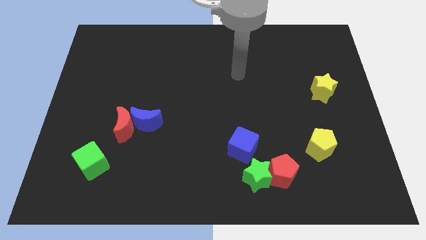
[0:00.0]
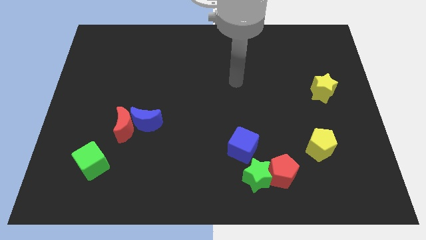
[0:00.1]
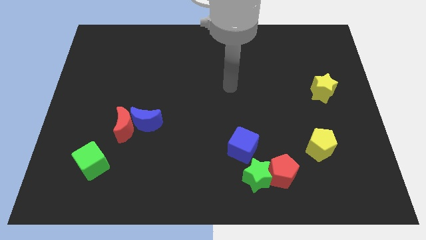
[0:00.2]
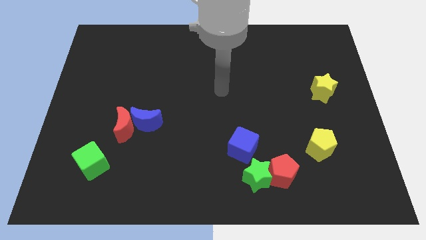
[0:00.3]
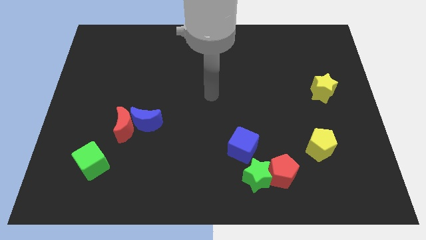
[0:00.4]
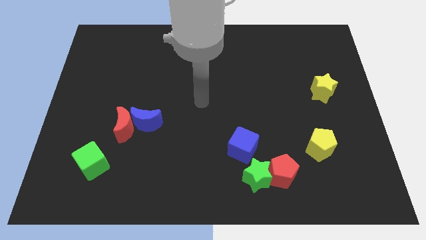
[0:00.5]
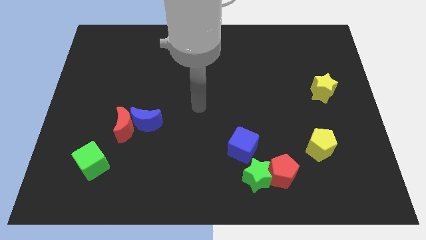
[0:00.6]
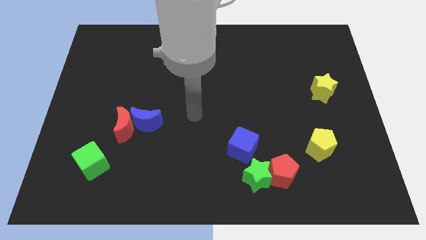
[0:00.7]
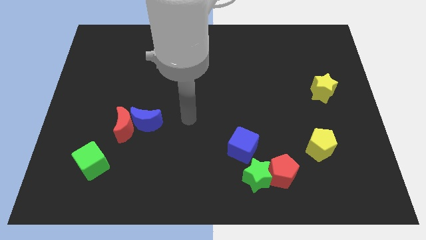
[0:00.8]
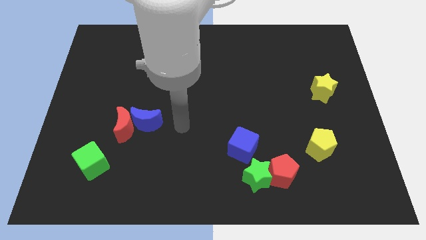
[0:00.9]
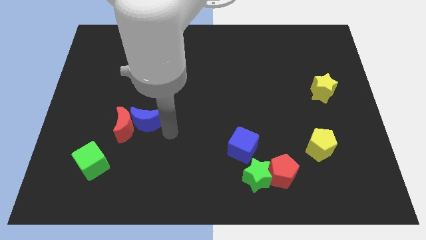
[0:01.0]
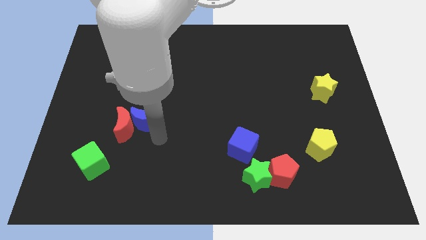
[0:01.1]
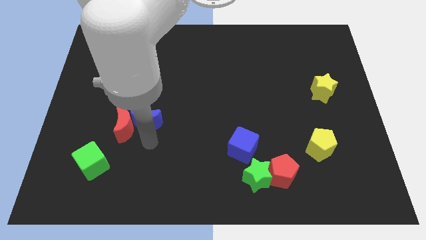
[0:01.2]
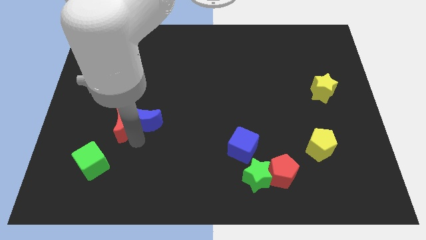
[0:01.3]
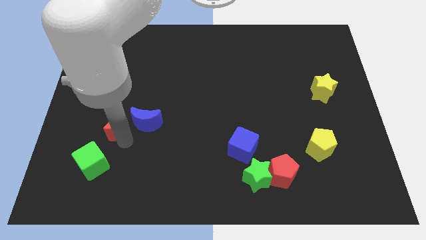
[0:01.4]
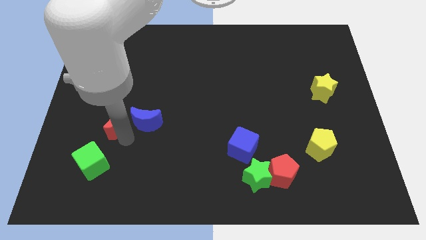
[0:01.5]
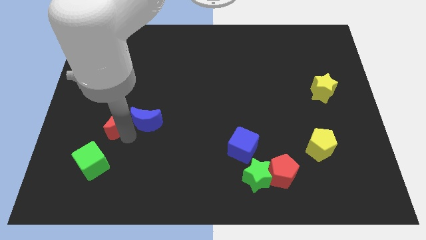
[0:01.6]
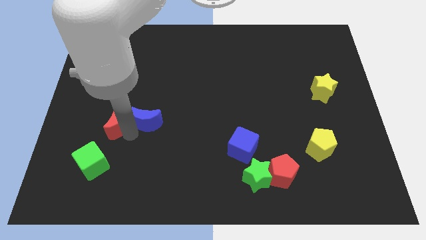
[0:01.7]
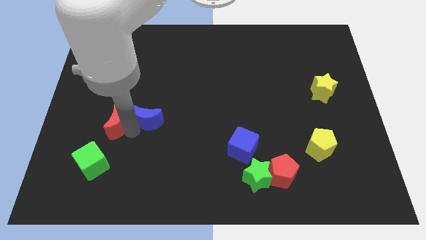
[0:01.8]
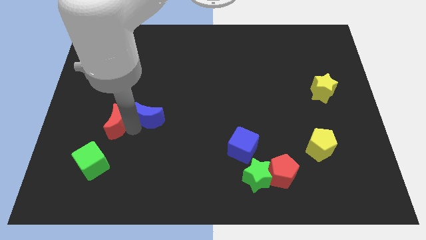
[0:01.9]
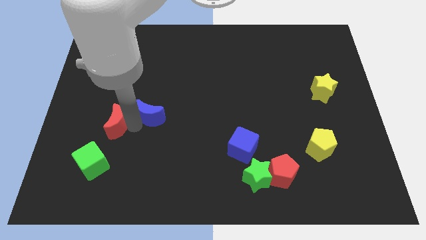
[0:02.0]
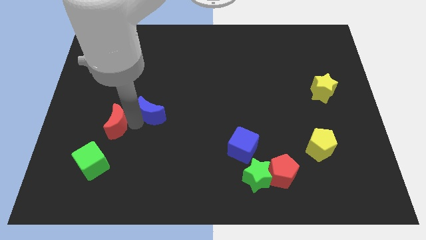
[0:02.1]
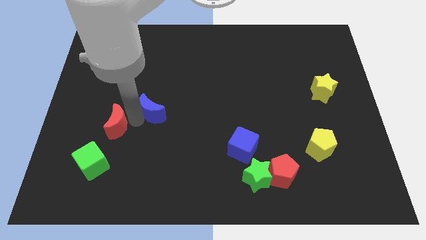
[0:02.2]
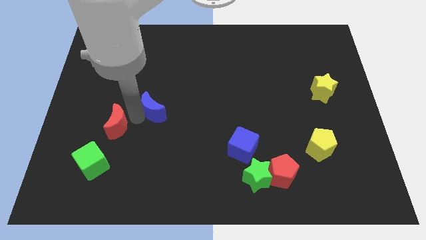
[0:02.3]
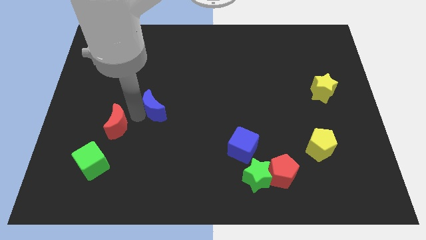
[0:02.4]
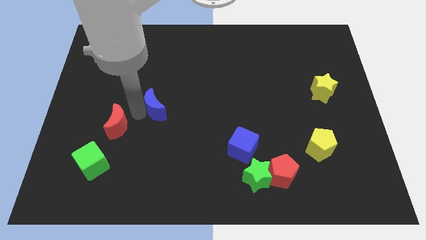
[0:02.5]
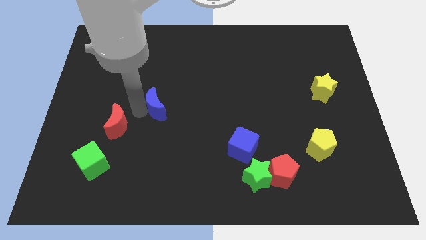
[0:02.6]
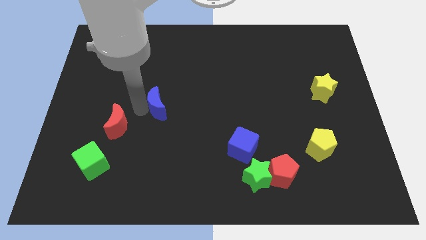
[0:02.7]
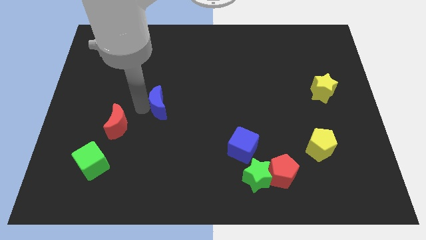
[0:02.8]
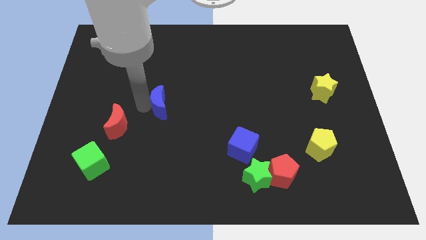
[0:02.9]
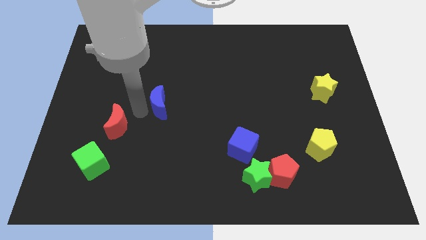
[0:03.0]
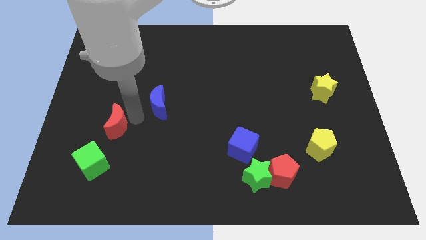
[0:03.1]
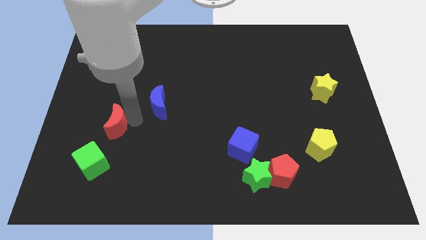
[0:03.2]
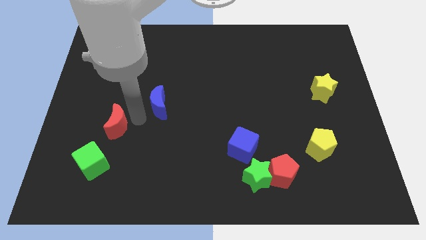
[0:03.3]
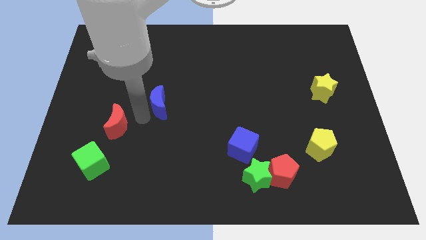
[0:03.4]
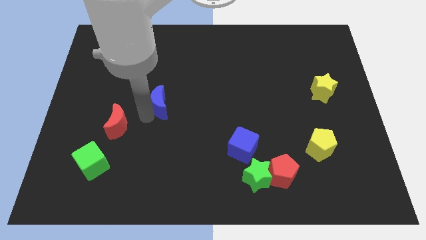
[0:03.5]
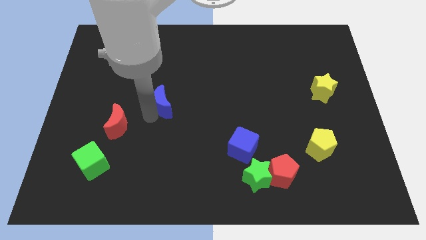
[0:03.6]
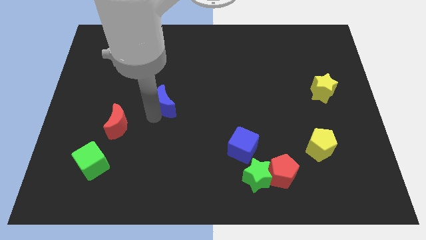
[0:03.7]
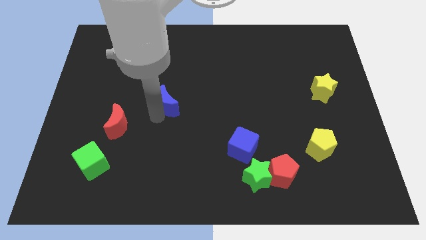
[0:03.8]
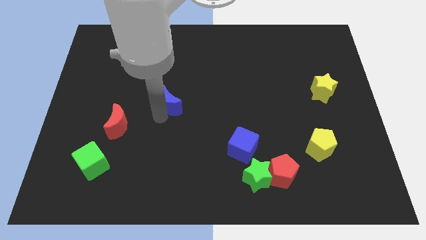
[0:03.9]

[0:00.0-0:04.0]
move the blue moon somewhat up and then to the right

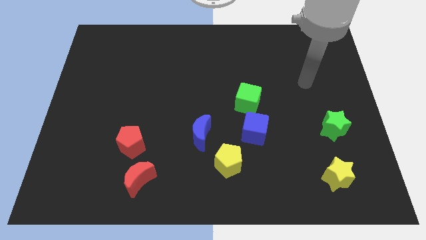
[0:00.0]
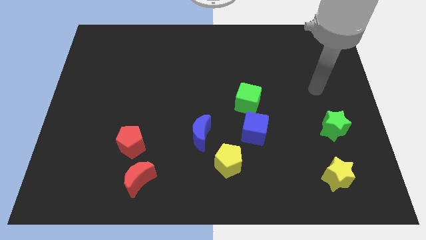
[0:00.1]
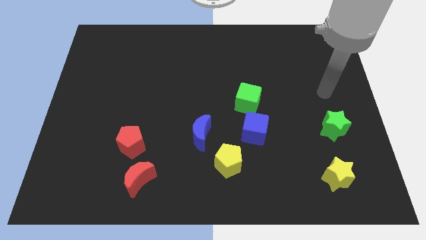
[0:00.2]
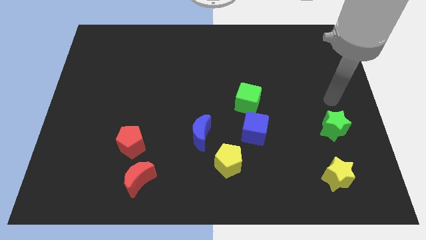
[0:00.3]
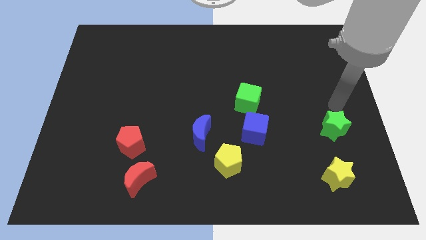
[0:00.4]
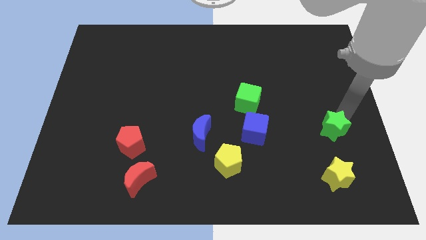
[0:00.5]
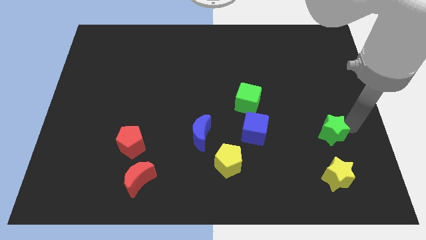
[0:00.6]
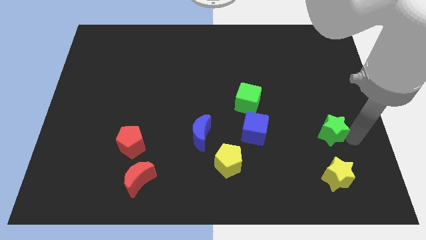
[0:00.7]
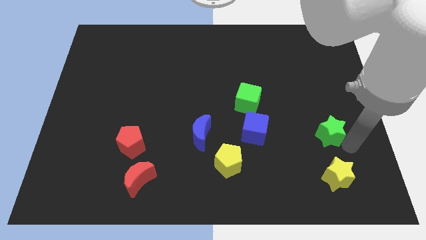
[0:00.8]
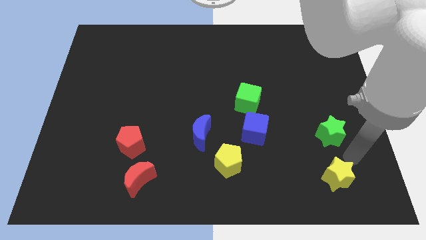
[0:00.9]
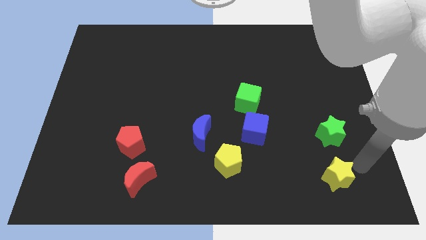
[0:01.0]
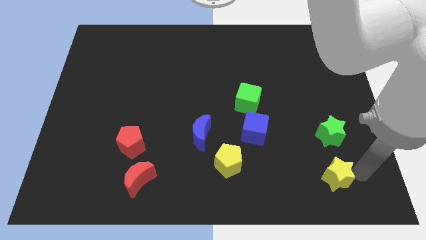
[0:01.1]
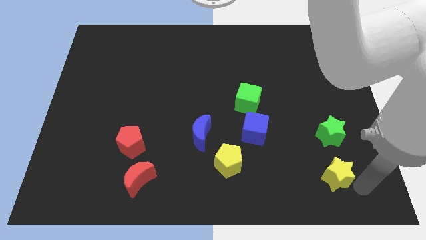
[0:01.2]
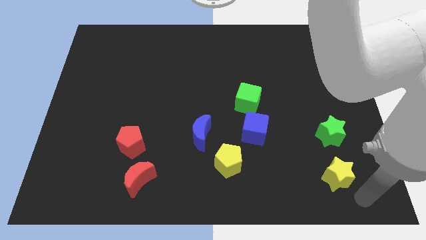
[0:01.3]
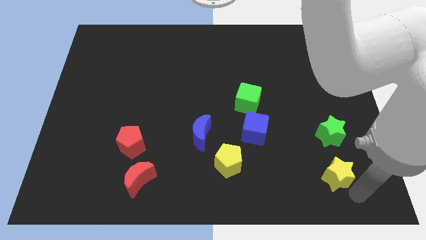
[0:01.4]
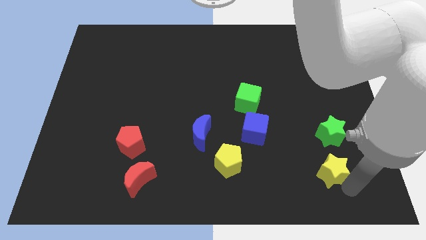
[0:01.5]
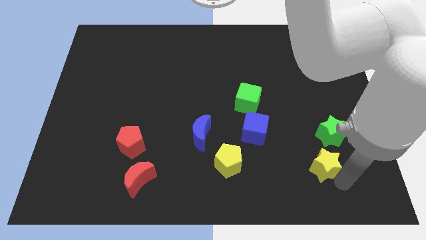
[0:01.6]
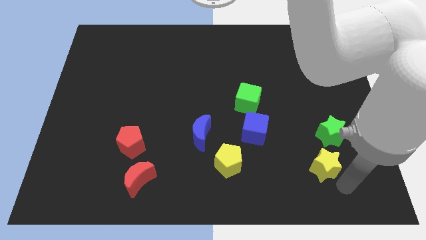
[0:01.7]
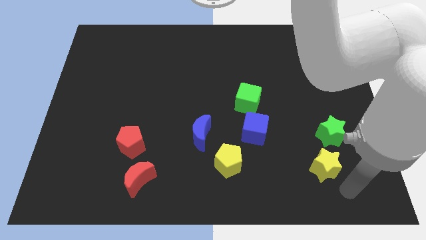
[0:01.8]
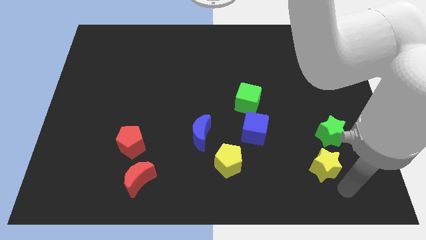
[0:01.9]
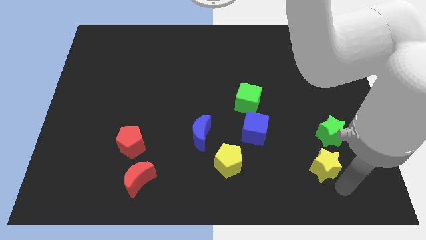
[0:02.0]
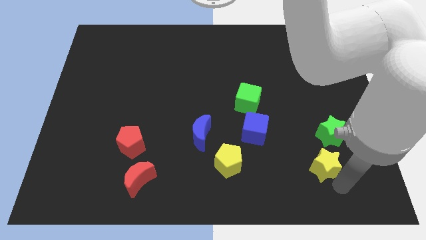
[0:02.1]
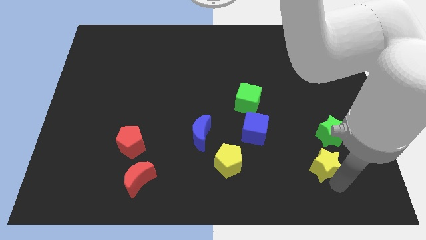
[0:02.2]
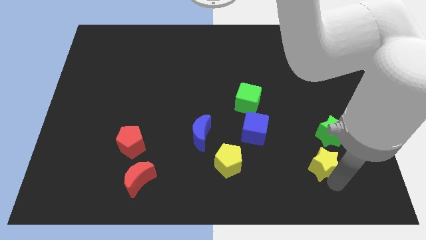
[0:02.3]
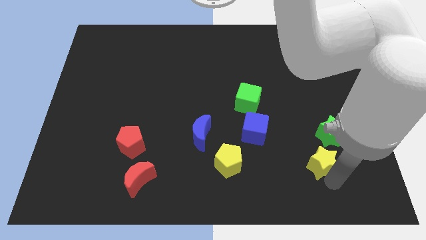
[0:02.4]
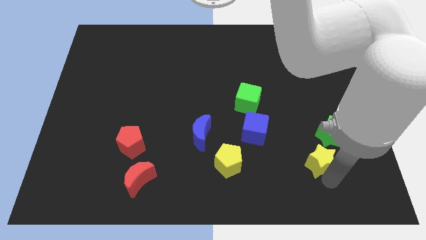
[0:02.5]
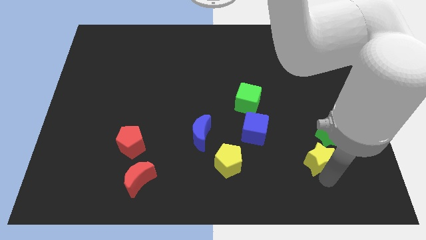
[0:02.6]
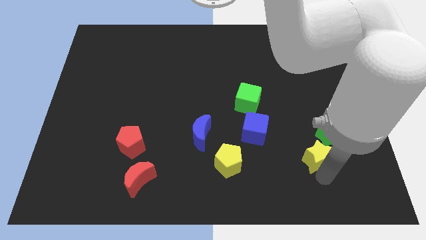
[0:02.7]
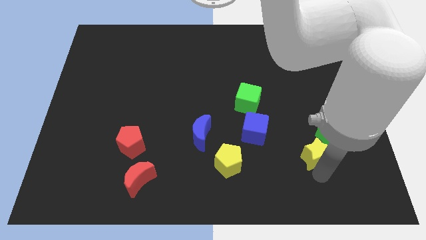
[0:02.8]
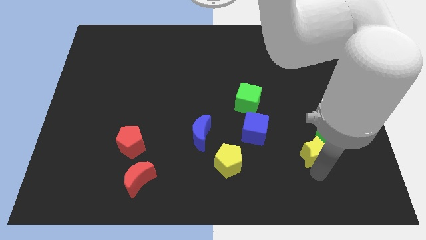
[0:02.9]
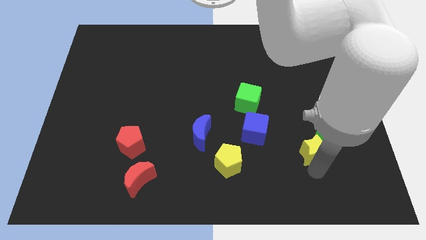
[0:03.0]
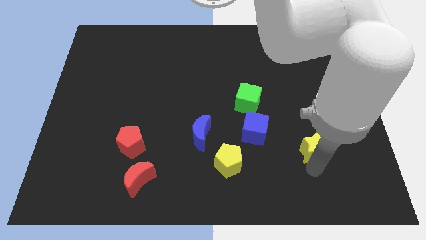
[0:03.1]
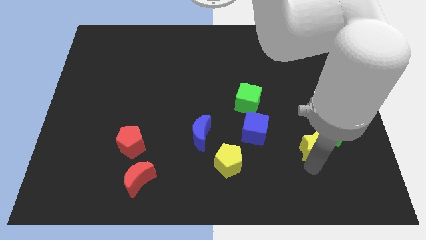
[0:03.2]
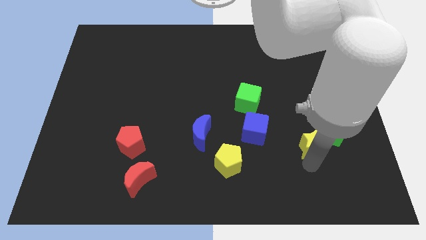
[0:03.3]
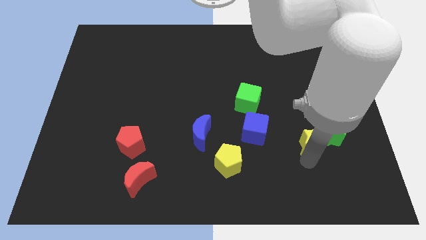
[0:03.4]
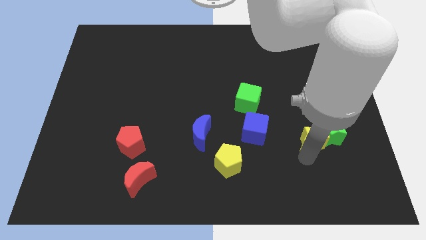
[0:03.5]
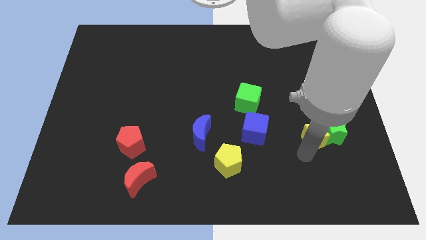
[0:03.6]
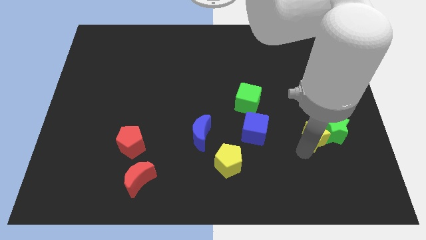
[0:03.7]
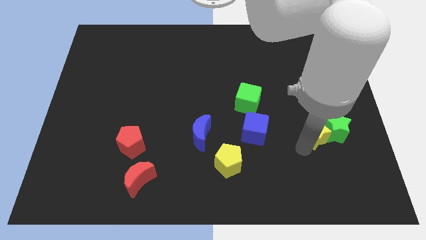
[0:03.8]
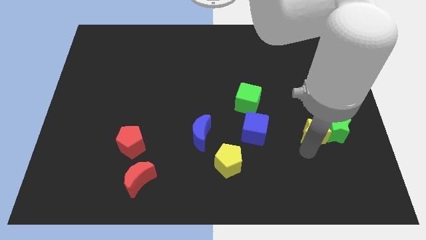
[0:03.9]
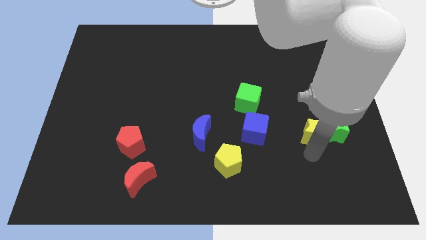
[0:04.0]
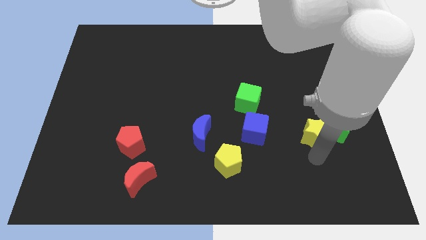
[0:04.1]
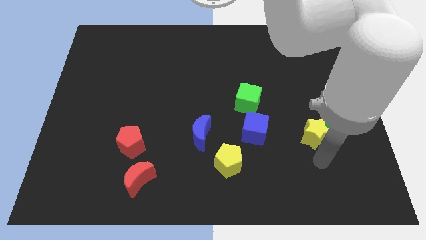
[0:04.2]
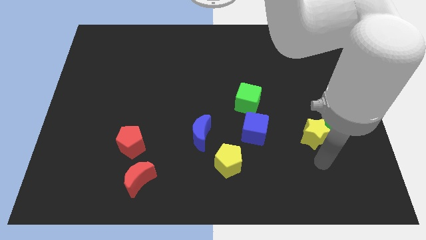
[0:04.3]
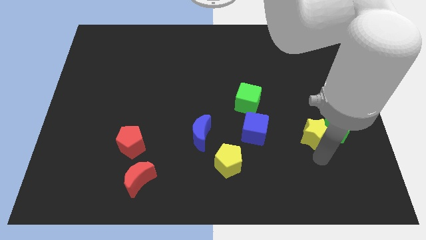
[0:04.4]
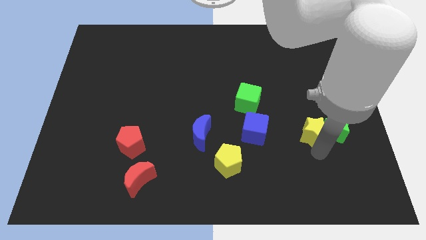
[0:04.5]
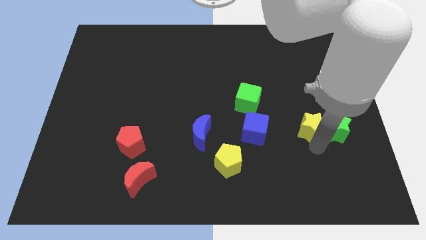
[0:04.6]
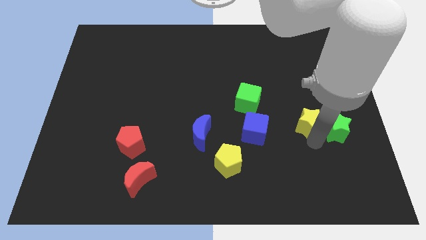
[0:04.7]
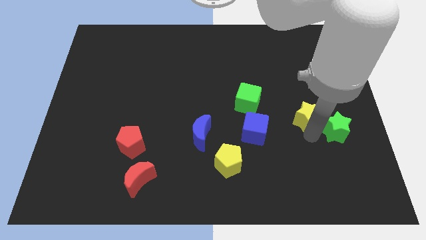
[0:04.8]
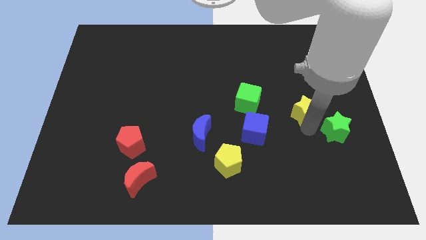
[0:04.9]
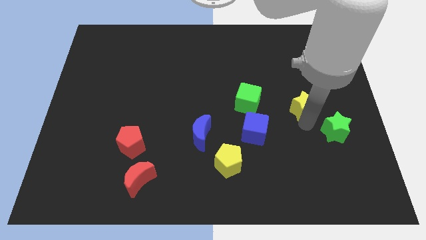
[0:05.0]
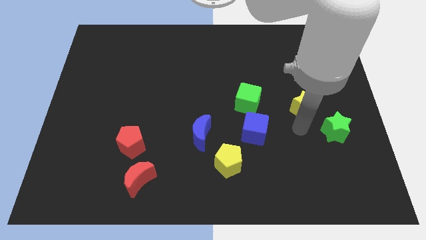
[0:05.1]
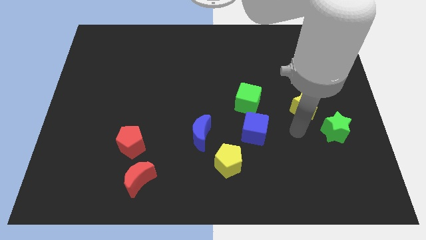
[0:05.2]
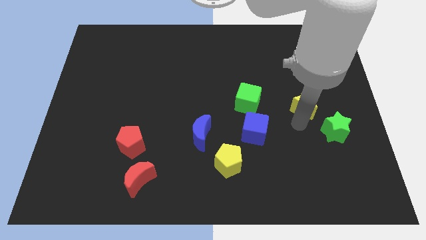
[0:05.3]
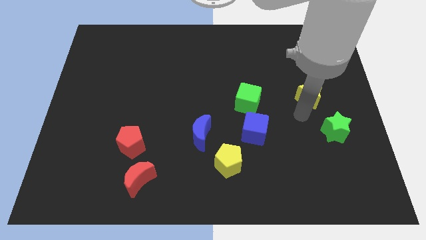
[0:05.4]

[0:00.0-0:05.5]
slide the yellow star up
